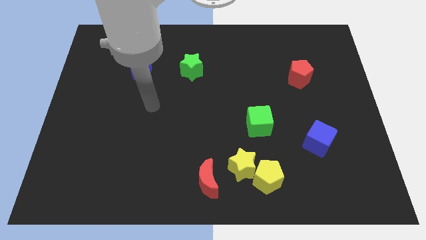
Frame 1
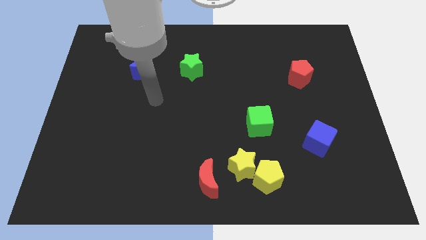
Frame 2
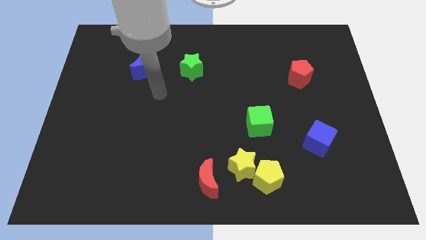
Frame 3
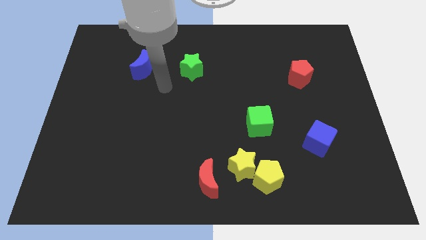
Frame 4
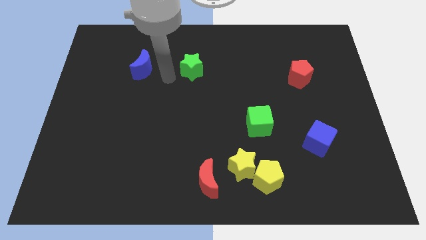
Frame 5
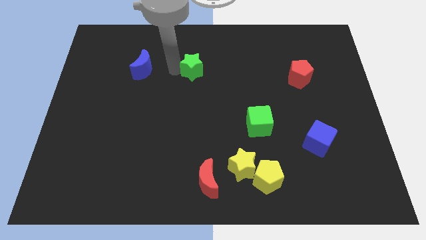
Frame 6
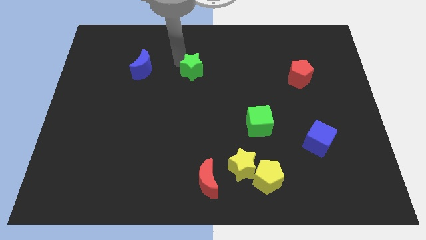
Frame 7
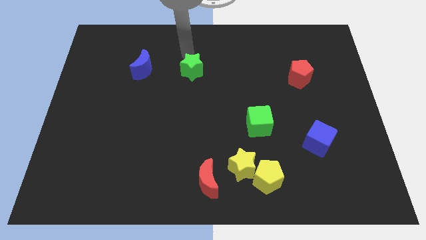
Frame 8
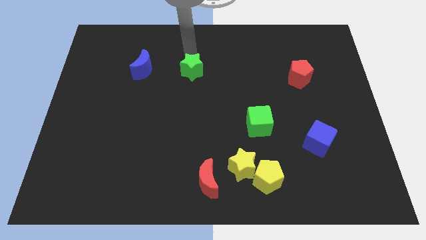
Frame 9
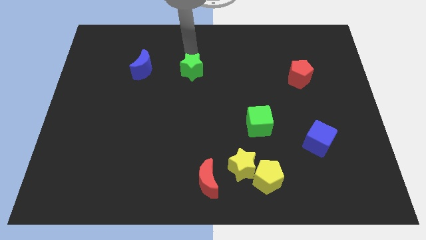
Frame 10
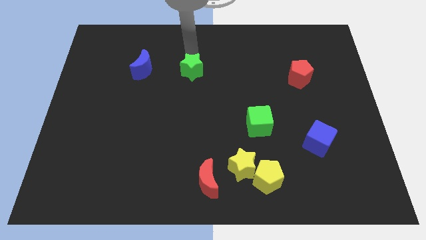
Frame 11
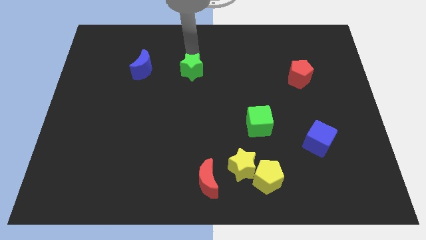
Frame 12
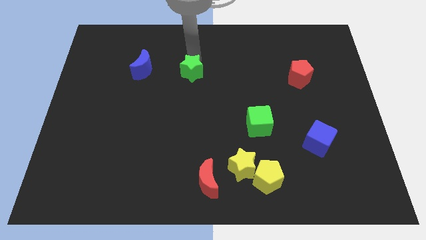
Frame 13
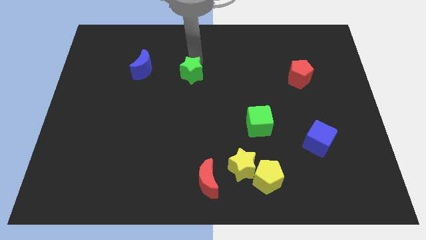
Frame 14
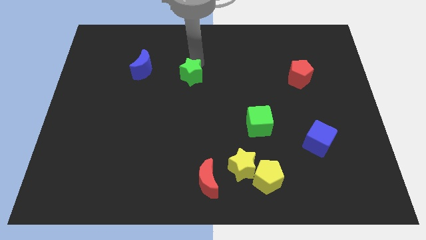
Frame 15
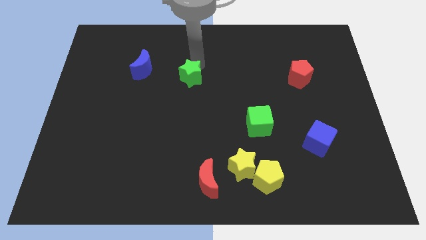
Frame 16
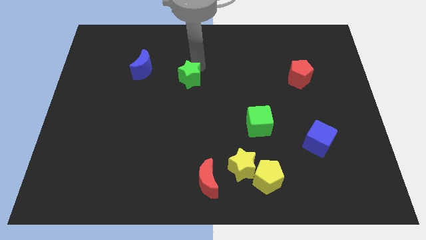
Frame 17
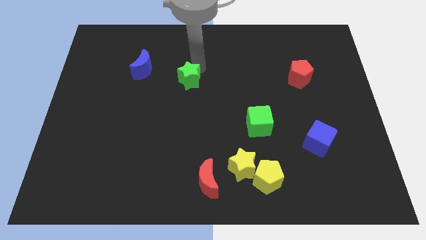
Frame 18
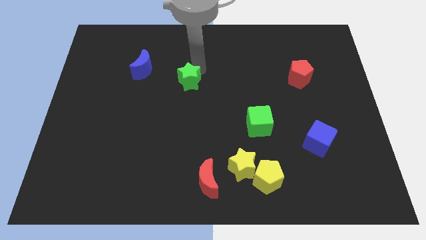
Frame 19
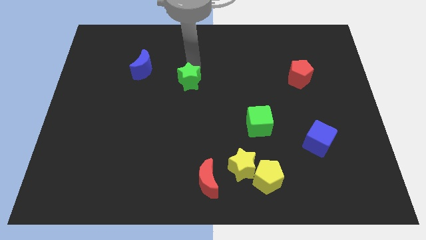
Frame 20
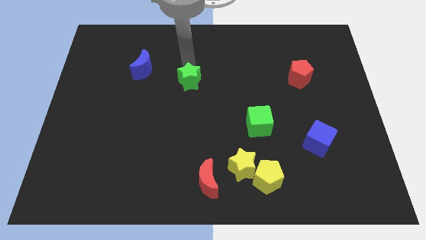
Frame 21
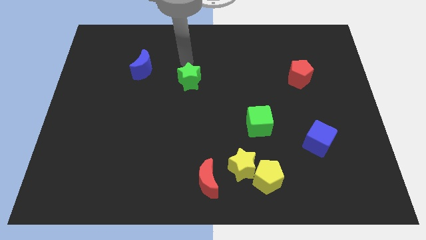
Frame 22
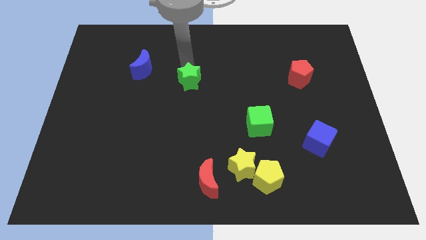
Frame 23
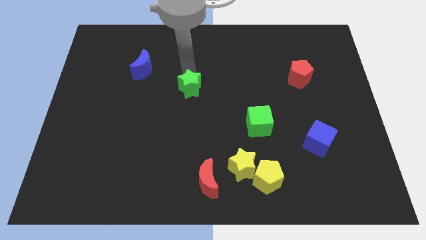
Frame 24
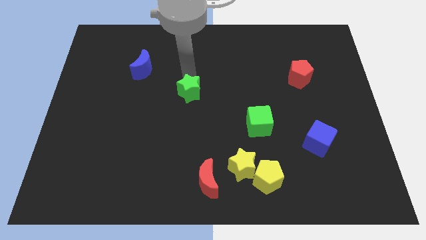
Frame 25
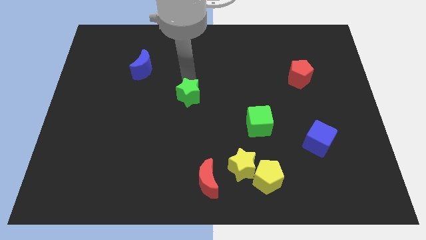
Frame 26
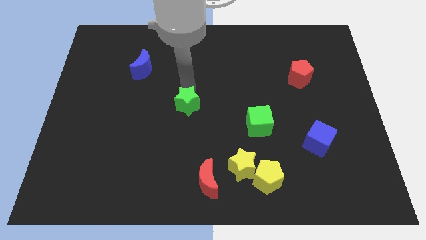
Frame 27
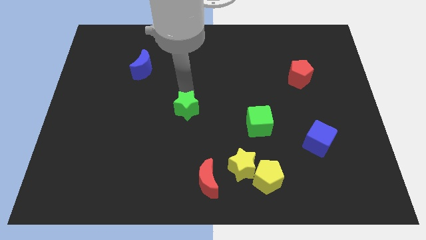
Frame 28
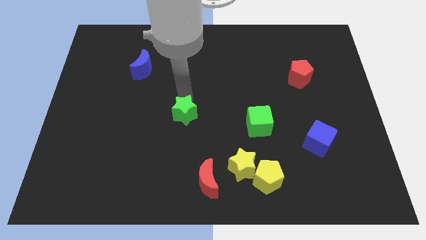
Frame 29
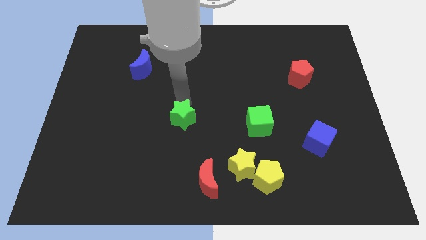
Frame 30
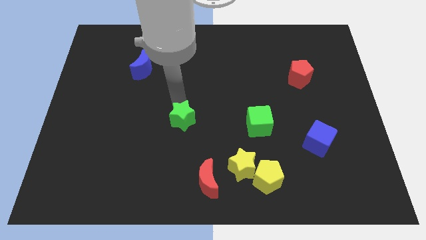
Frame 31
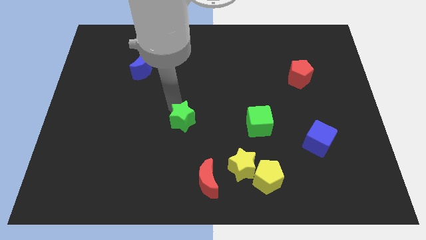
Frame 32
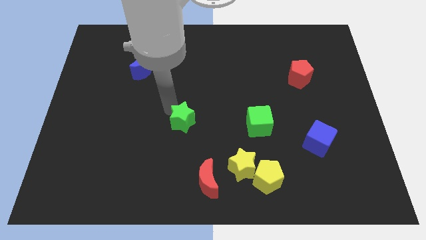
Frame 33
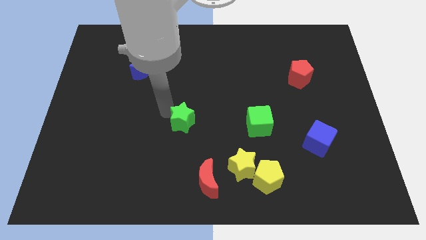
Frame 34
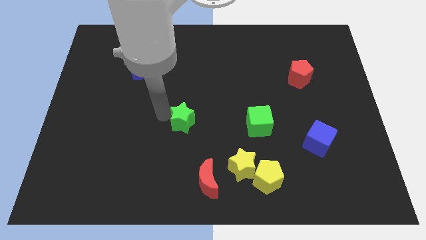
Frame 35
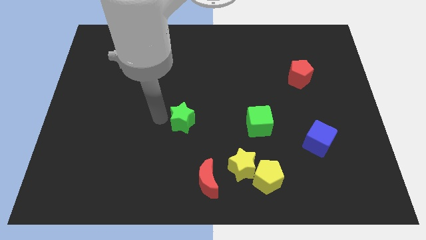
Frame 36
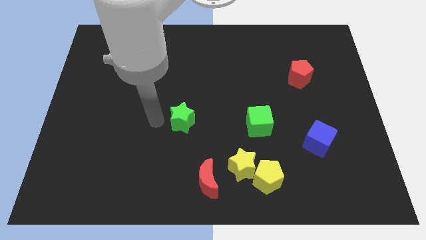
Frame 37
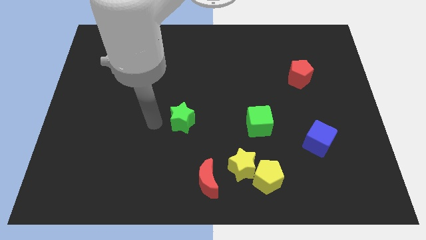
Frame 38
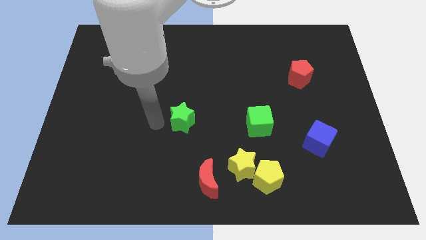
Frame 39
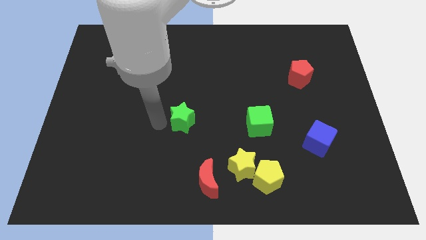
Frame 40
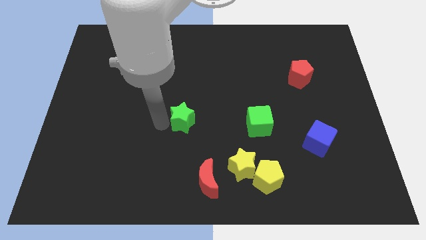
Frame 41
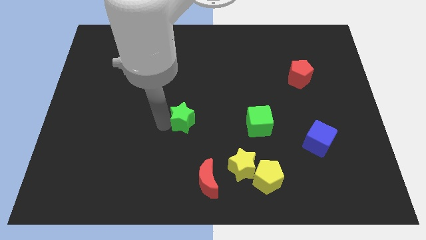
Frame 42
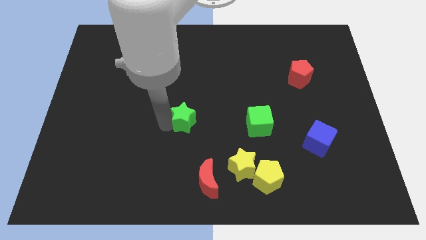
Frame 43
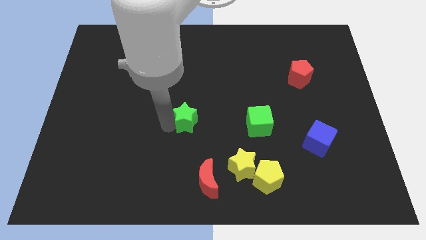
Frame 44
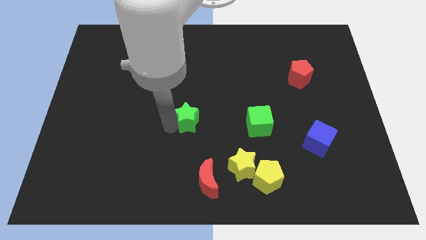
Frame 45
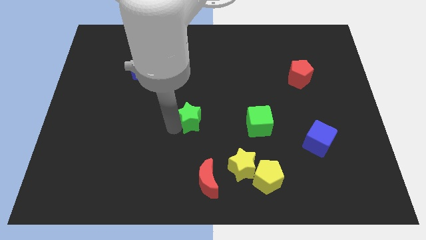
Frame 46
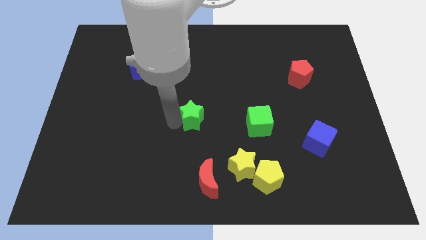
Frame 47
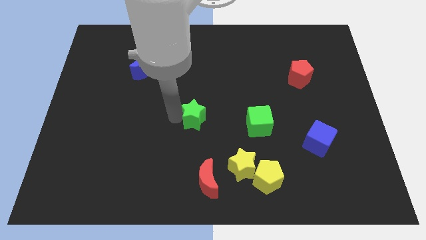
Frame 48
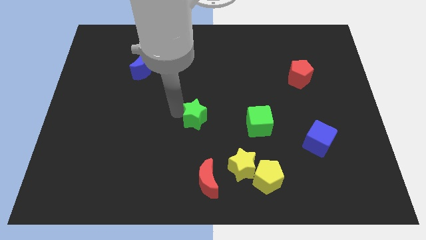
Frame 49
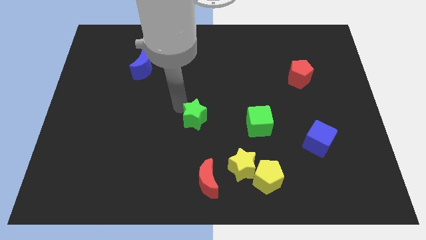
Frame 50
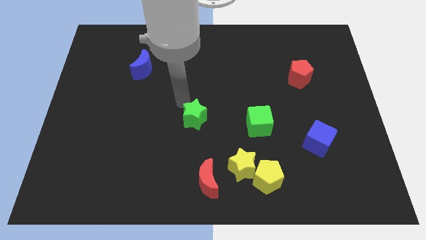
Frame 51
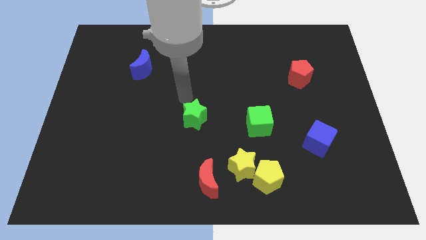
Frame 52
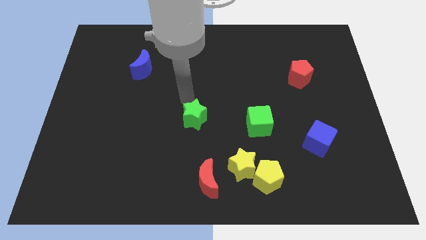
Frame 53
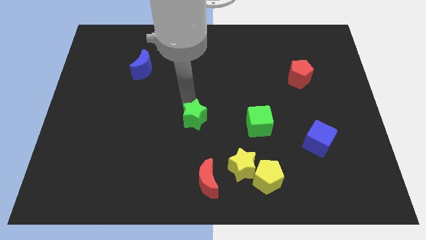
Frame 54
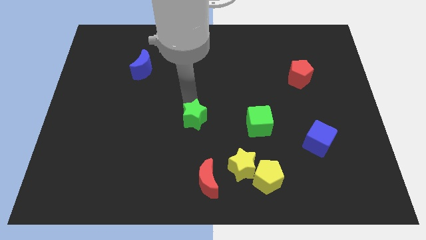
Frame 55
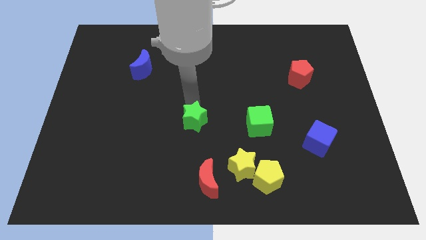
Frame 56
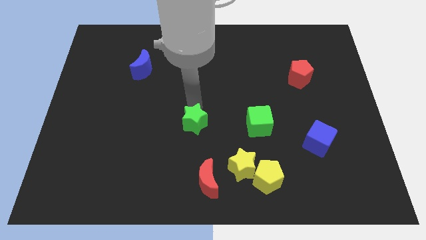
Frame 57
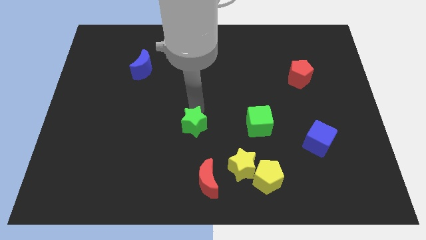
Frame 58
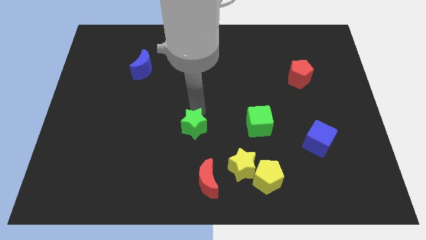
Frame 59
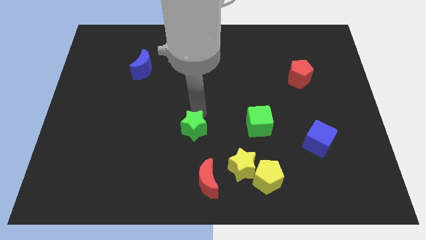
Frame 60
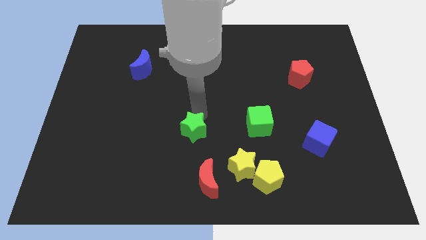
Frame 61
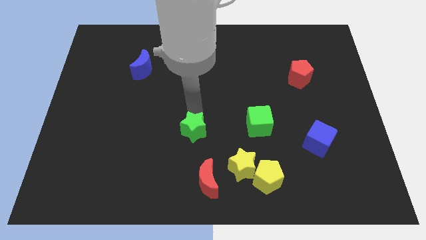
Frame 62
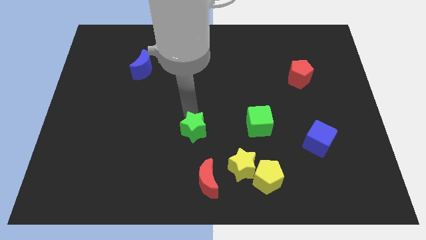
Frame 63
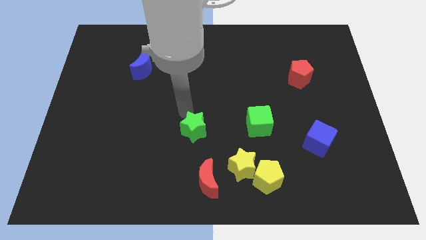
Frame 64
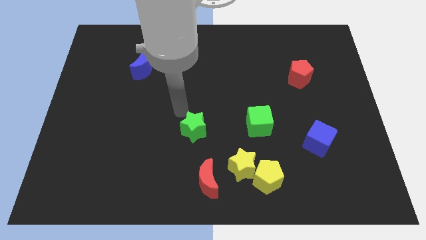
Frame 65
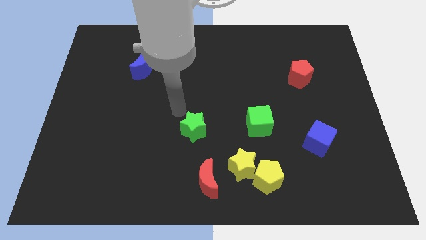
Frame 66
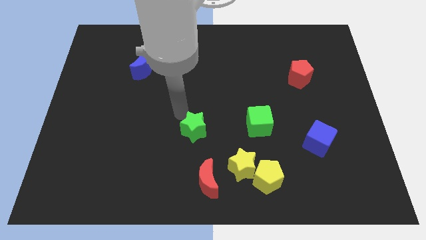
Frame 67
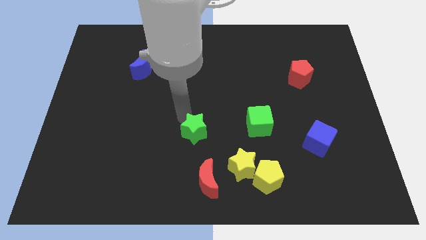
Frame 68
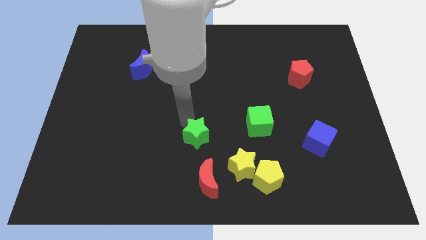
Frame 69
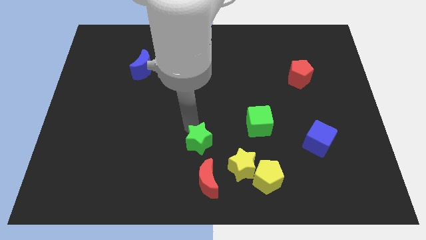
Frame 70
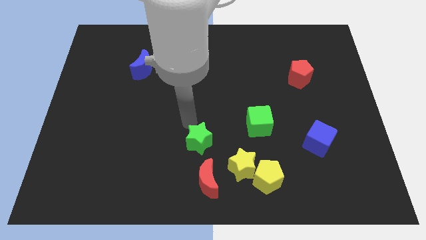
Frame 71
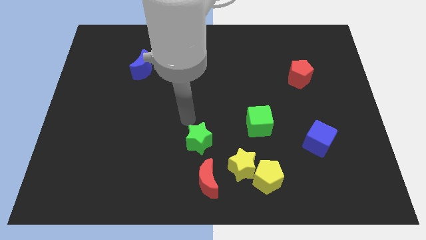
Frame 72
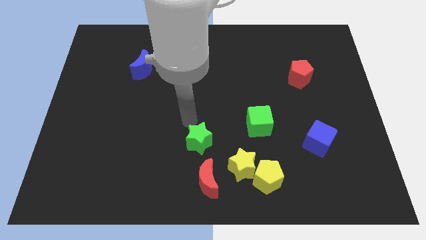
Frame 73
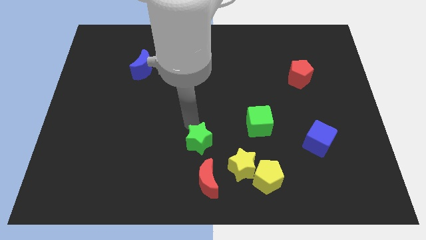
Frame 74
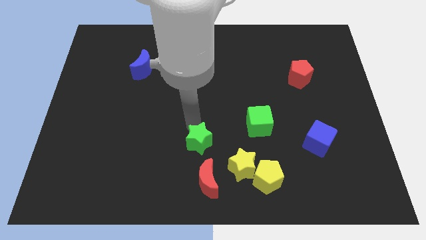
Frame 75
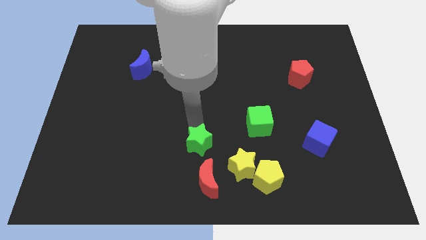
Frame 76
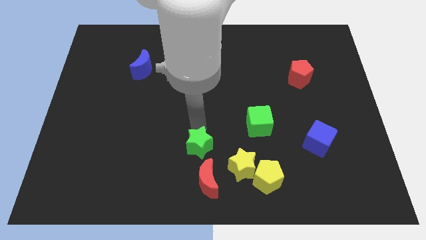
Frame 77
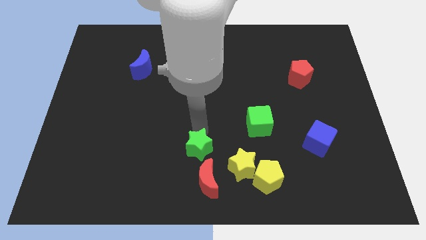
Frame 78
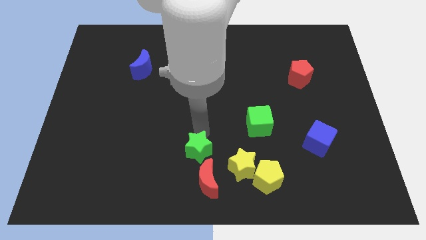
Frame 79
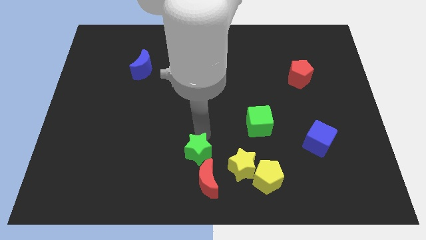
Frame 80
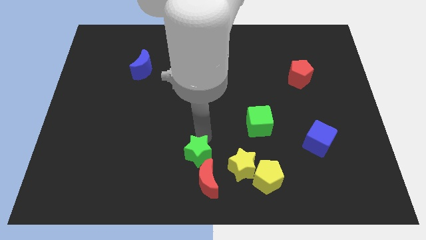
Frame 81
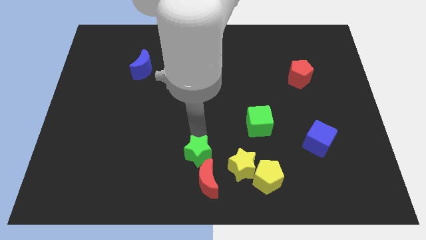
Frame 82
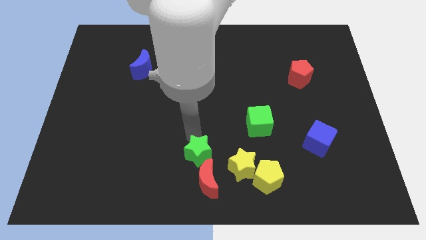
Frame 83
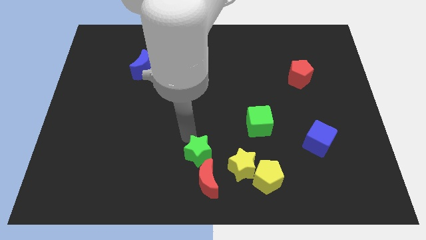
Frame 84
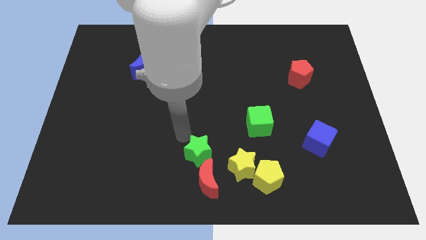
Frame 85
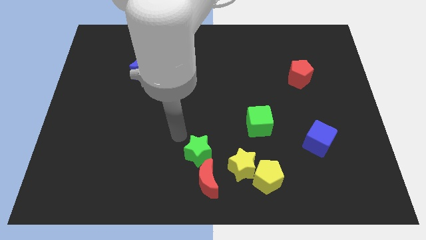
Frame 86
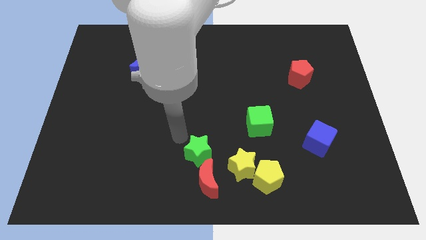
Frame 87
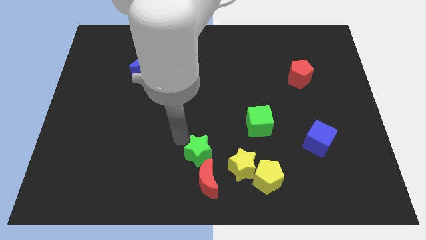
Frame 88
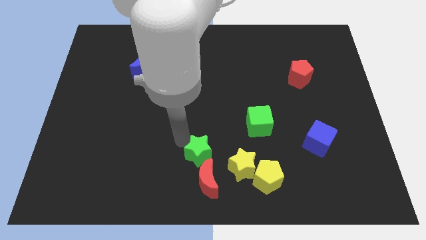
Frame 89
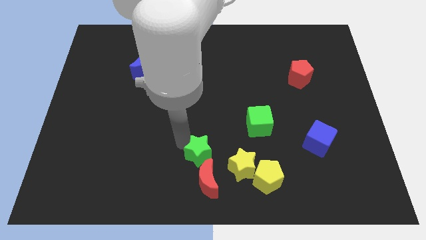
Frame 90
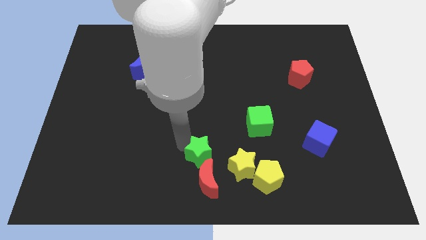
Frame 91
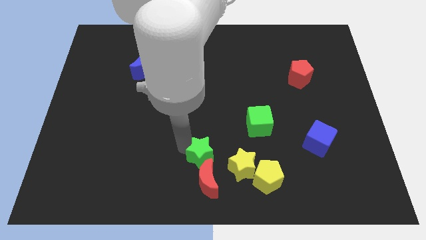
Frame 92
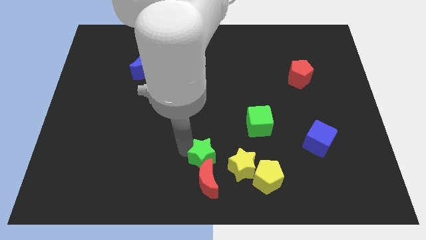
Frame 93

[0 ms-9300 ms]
move the green star close to the red moon
